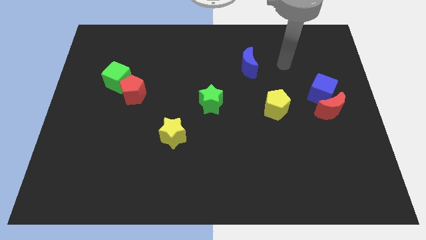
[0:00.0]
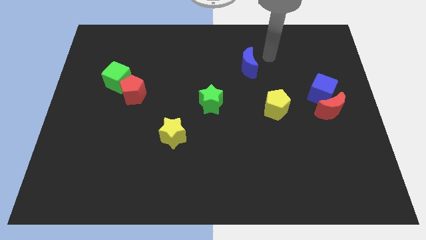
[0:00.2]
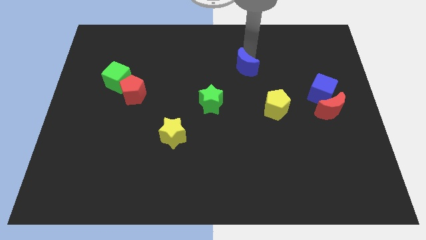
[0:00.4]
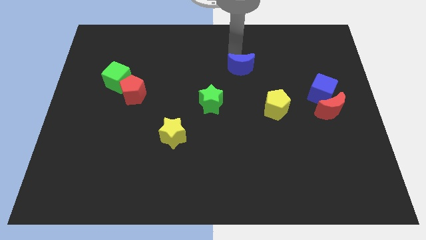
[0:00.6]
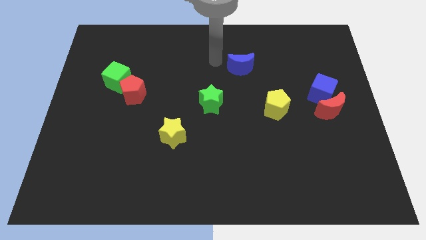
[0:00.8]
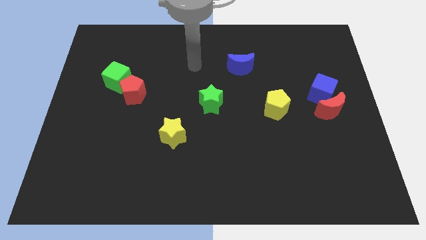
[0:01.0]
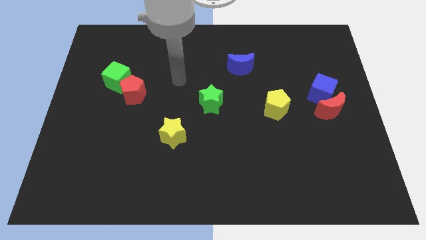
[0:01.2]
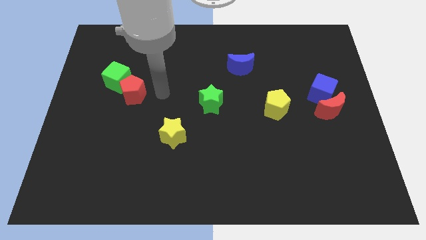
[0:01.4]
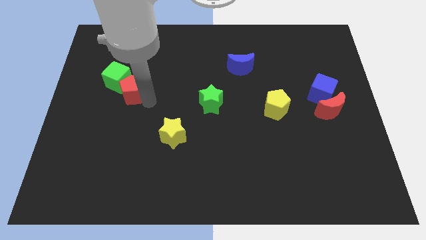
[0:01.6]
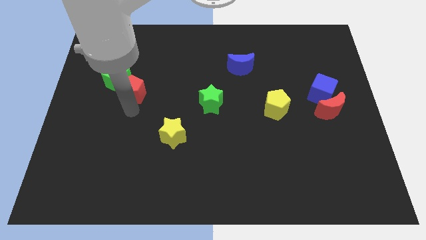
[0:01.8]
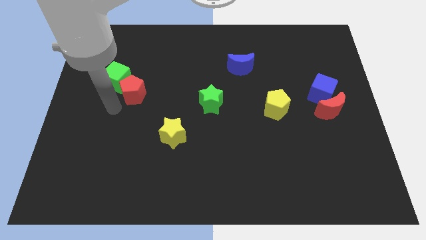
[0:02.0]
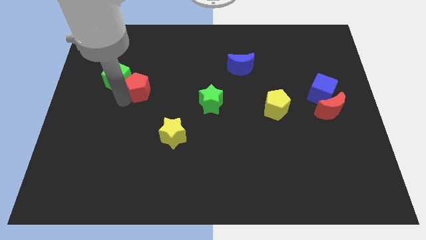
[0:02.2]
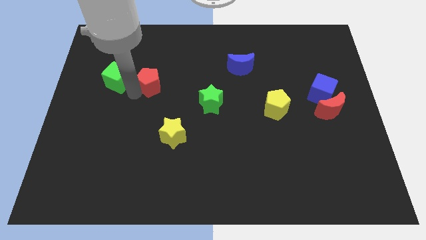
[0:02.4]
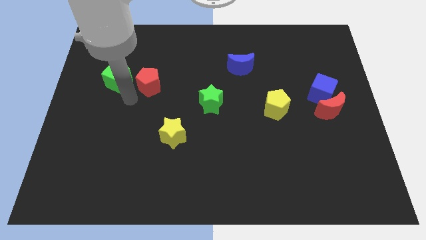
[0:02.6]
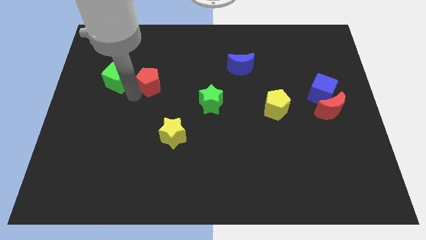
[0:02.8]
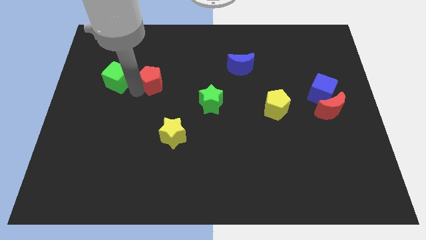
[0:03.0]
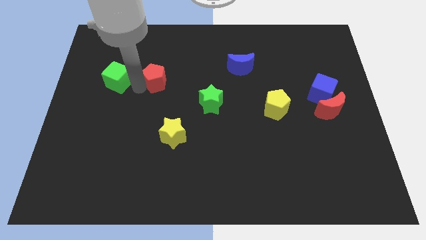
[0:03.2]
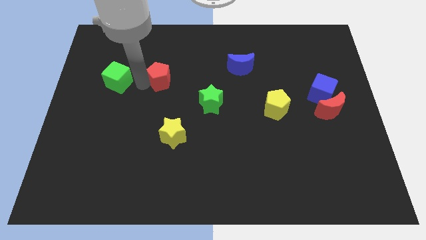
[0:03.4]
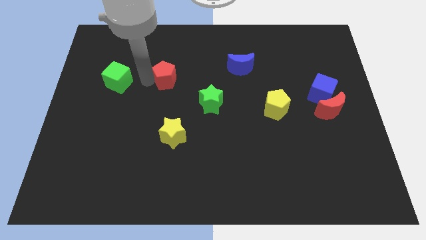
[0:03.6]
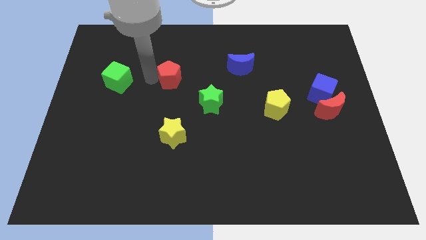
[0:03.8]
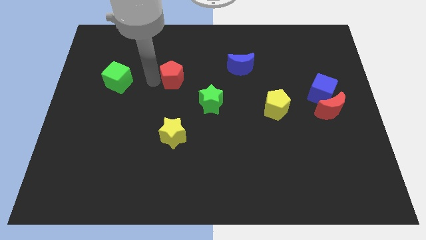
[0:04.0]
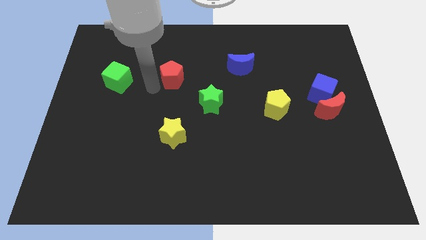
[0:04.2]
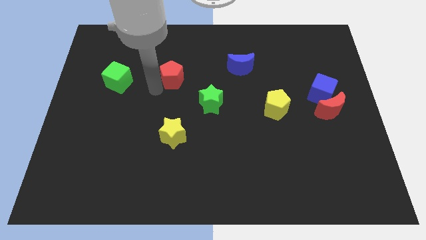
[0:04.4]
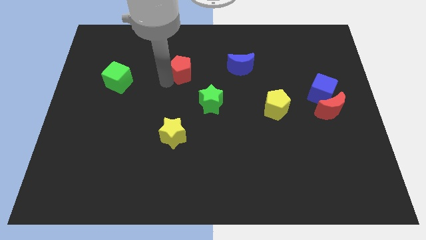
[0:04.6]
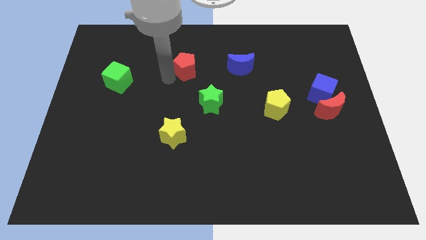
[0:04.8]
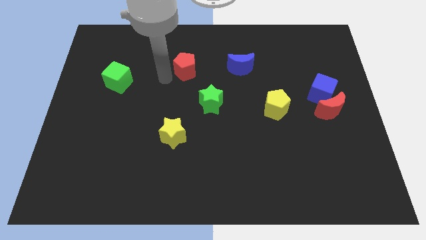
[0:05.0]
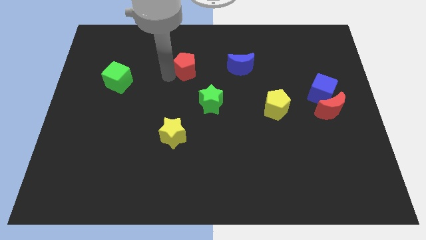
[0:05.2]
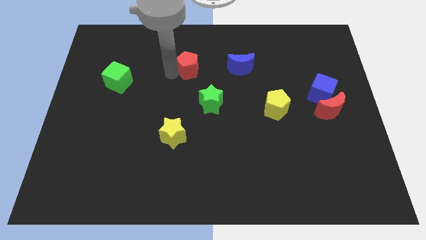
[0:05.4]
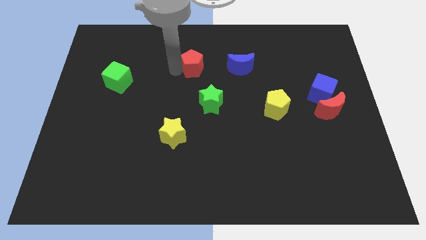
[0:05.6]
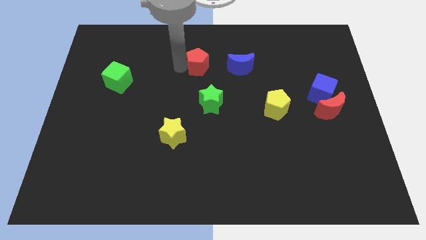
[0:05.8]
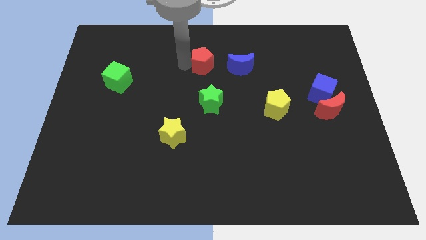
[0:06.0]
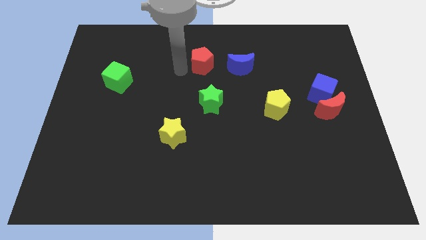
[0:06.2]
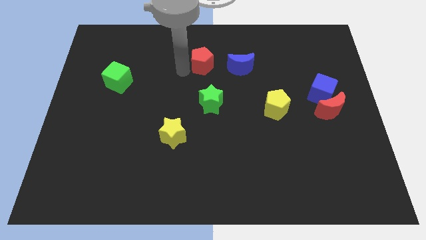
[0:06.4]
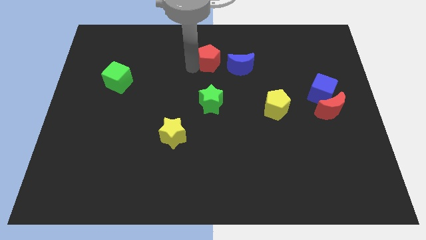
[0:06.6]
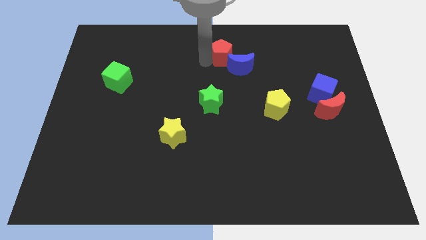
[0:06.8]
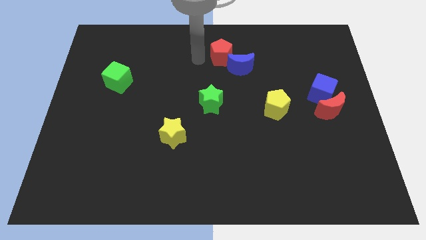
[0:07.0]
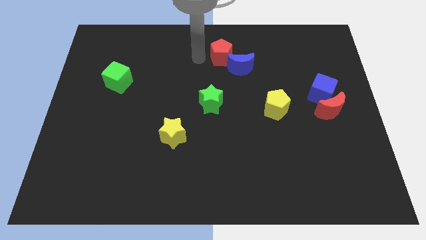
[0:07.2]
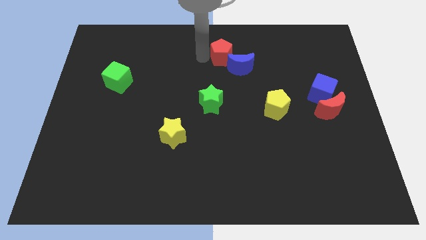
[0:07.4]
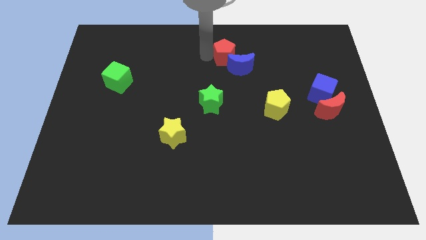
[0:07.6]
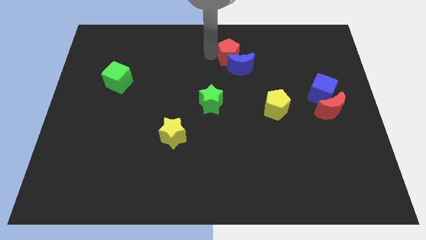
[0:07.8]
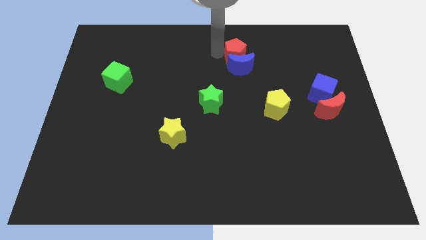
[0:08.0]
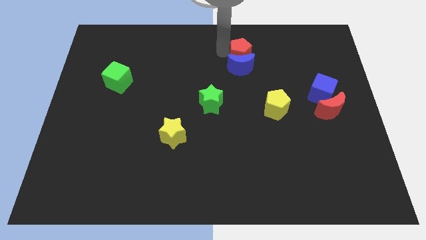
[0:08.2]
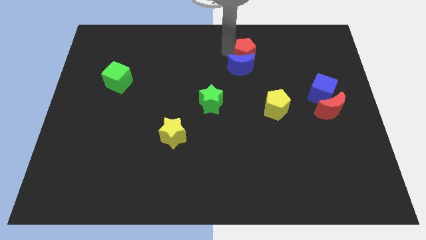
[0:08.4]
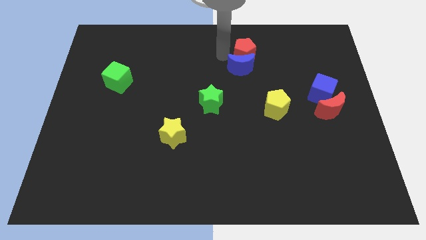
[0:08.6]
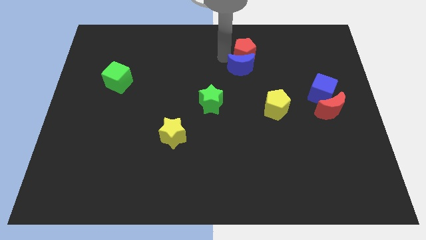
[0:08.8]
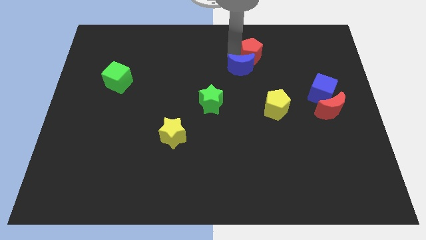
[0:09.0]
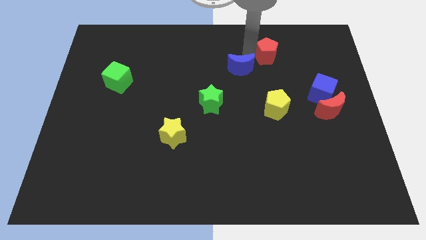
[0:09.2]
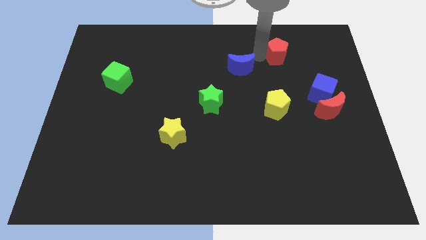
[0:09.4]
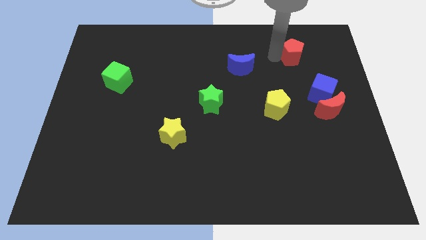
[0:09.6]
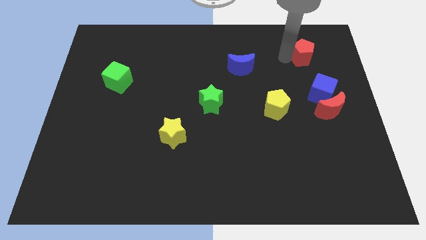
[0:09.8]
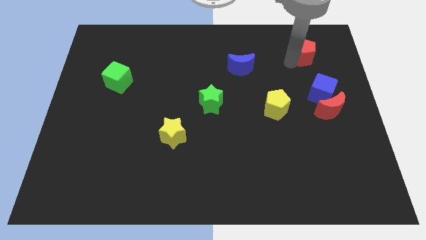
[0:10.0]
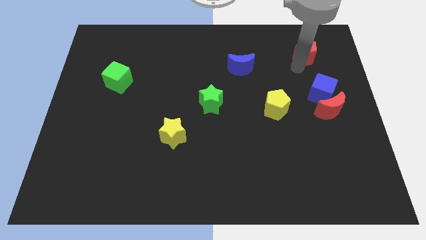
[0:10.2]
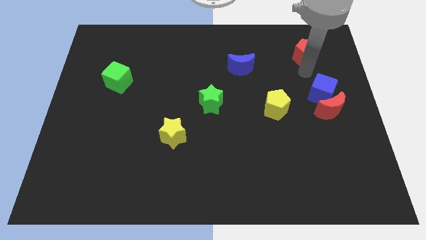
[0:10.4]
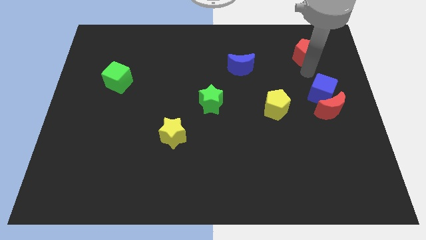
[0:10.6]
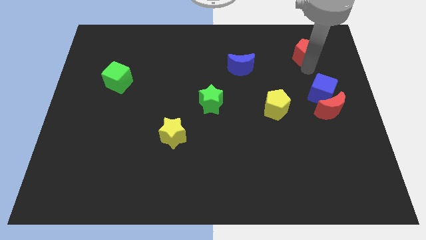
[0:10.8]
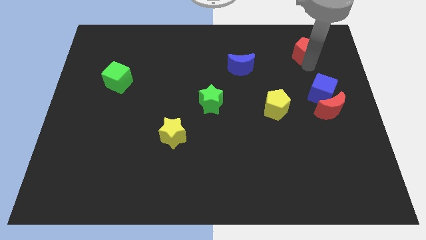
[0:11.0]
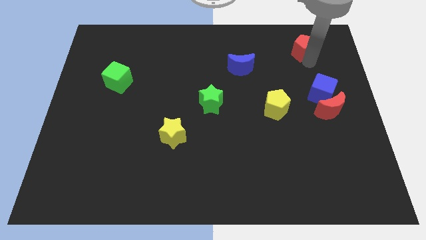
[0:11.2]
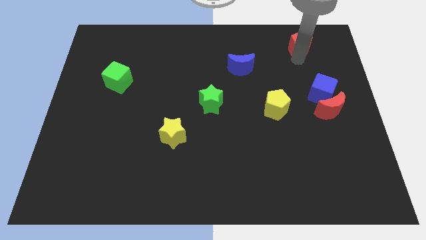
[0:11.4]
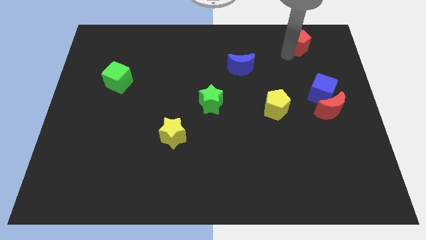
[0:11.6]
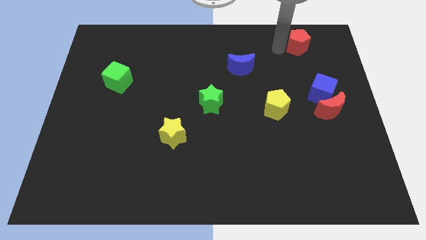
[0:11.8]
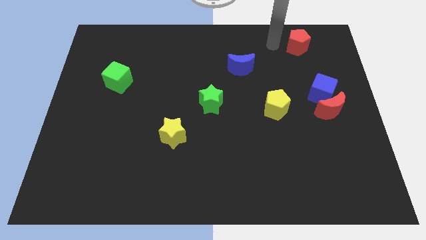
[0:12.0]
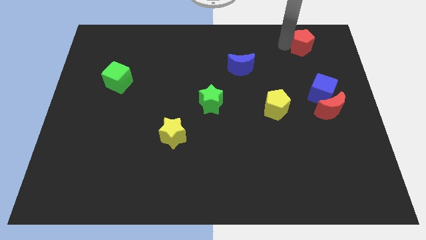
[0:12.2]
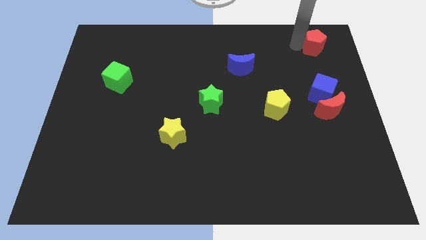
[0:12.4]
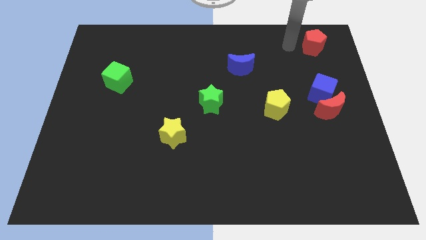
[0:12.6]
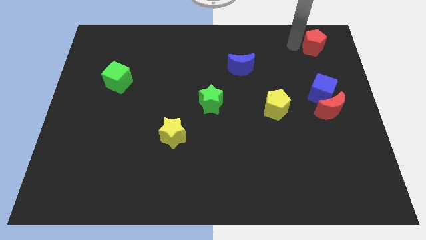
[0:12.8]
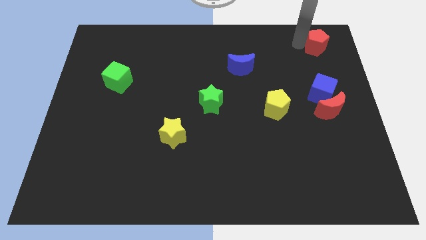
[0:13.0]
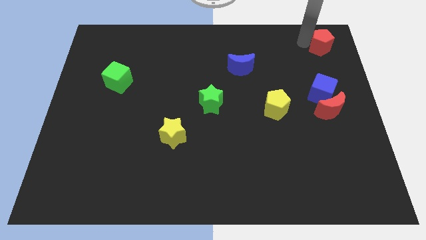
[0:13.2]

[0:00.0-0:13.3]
slide the red pentagon to the upper right corner

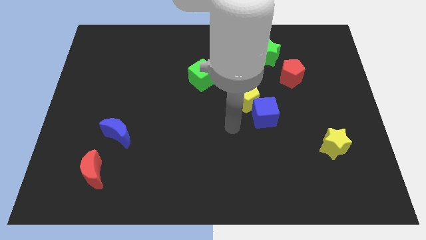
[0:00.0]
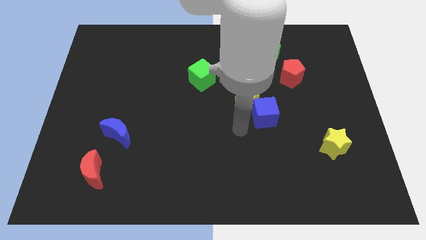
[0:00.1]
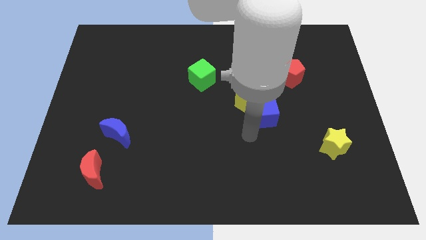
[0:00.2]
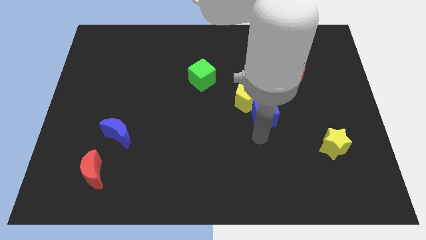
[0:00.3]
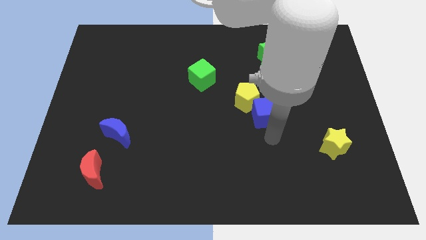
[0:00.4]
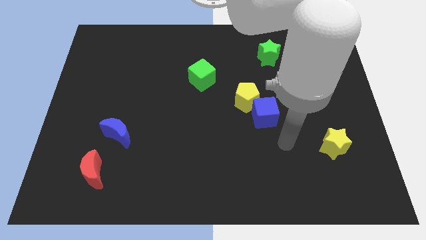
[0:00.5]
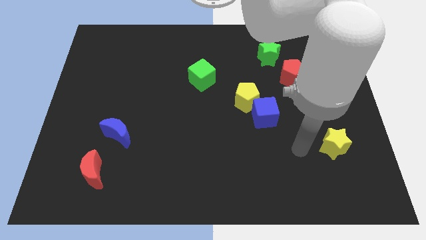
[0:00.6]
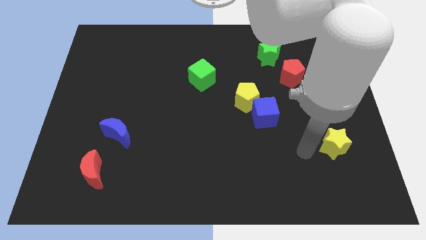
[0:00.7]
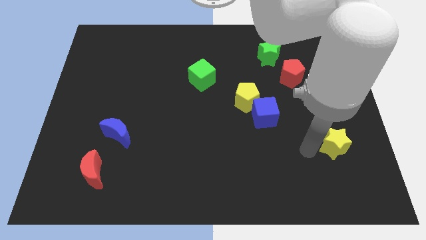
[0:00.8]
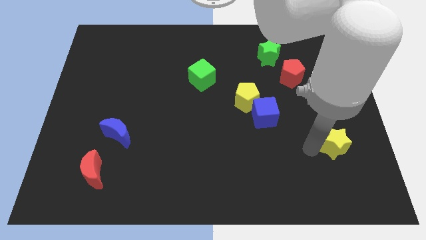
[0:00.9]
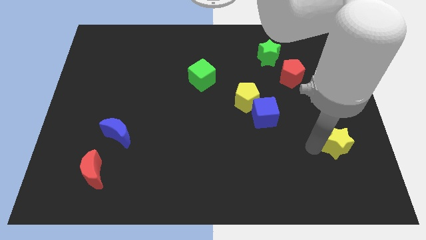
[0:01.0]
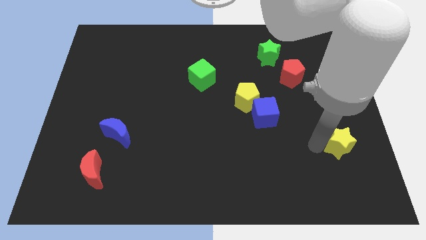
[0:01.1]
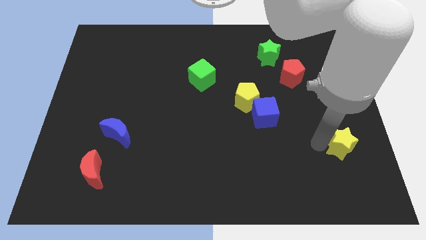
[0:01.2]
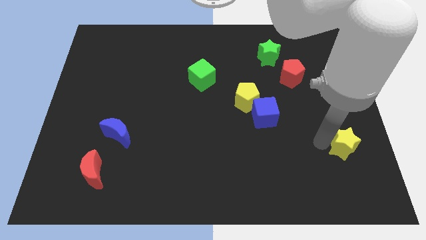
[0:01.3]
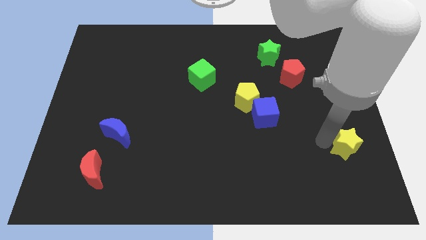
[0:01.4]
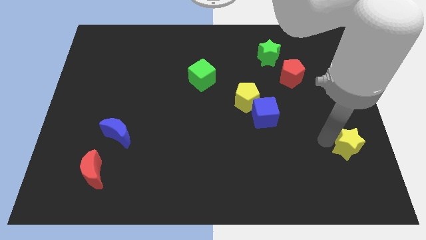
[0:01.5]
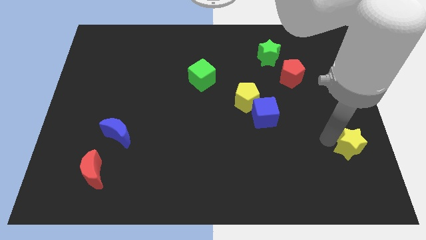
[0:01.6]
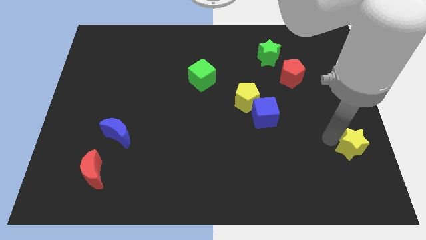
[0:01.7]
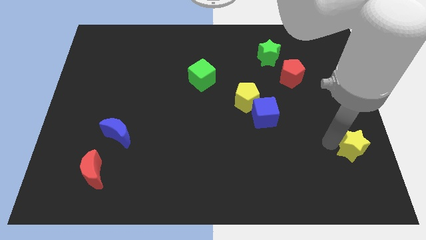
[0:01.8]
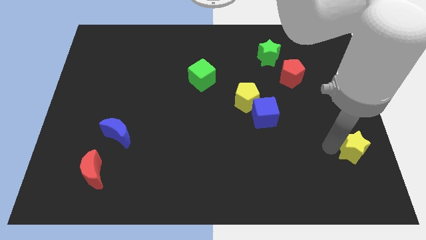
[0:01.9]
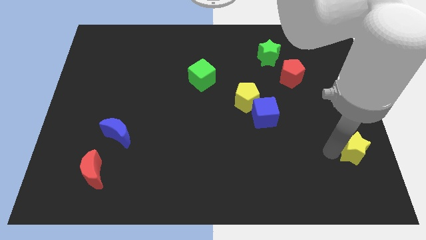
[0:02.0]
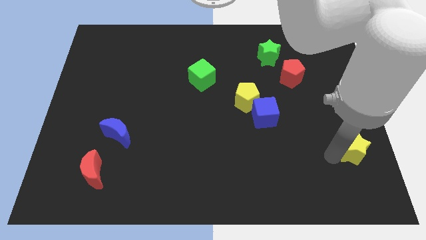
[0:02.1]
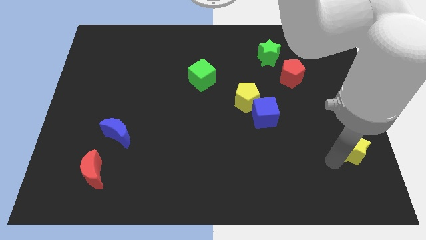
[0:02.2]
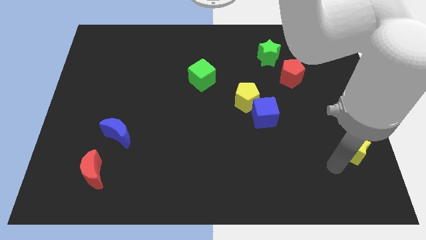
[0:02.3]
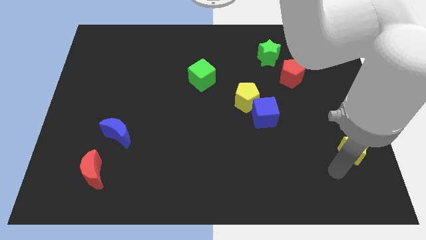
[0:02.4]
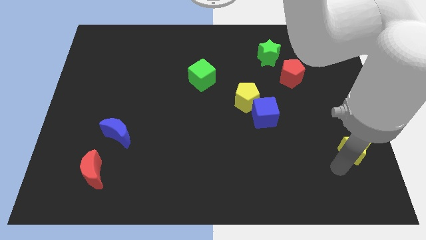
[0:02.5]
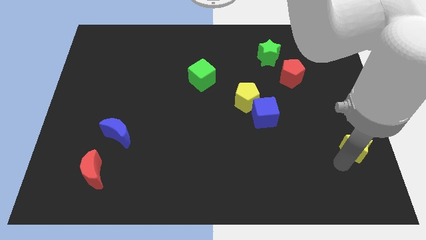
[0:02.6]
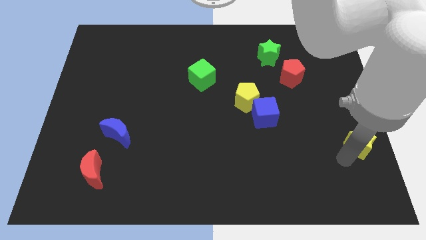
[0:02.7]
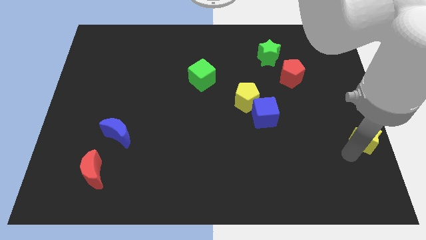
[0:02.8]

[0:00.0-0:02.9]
slide the yellow star to the center right
